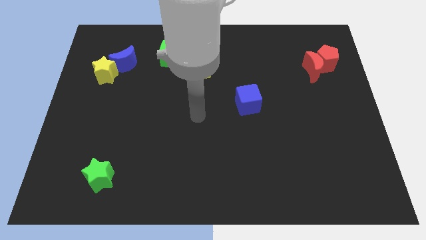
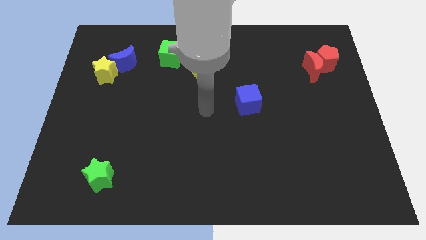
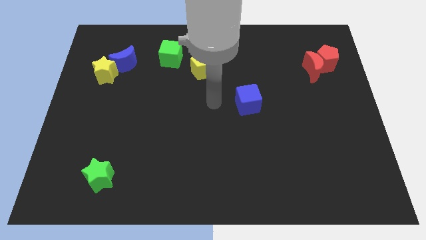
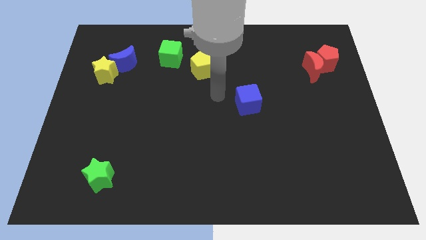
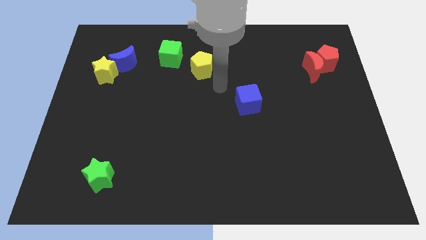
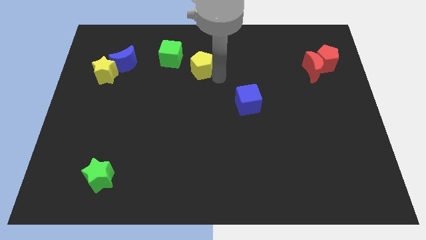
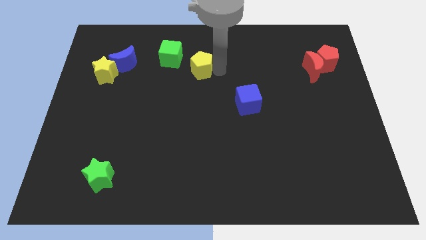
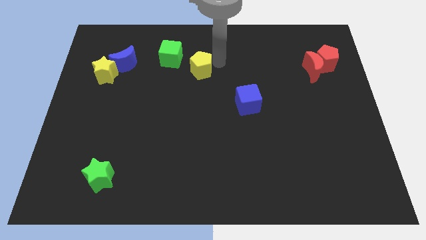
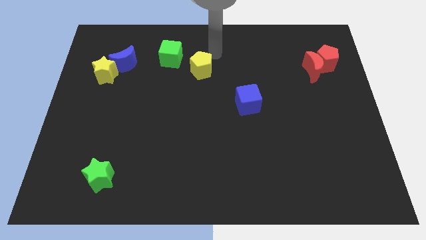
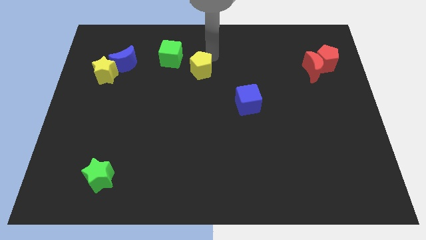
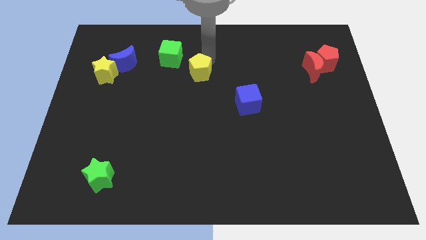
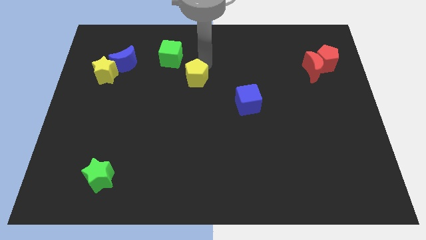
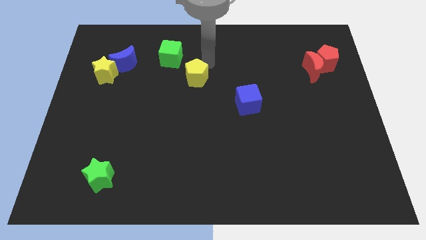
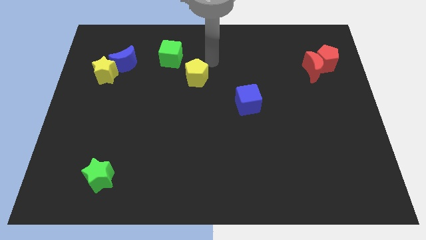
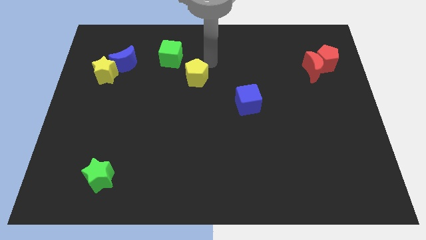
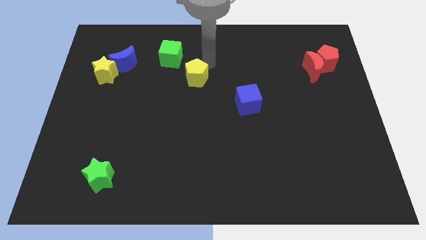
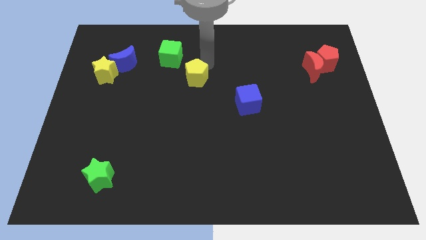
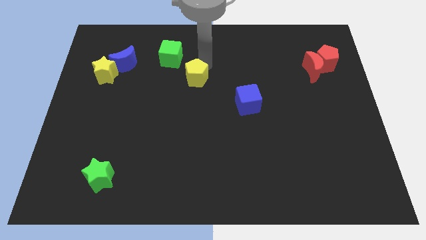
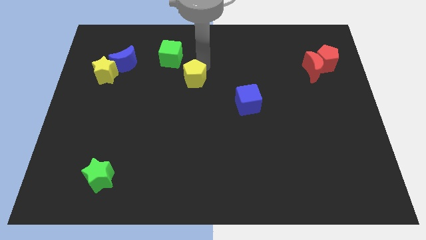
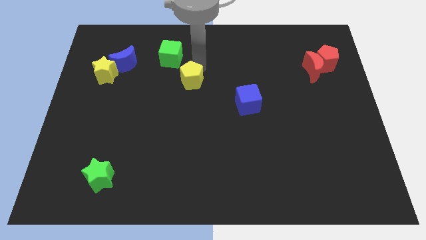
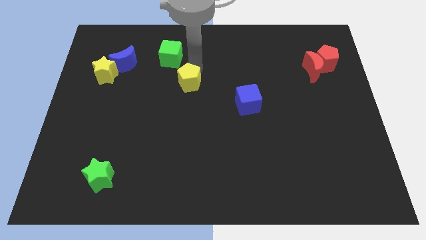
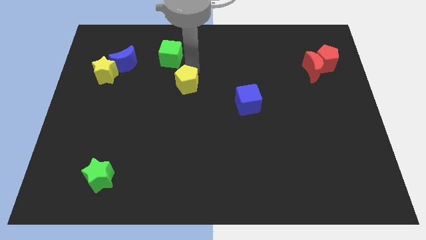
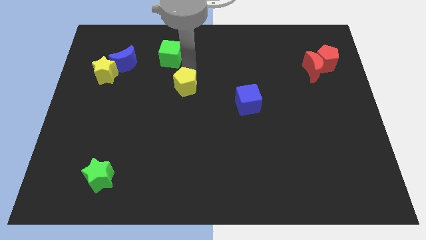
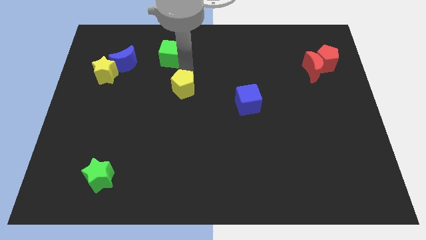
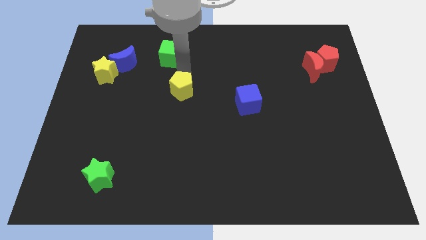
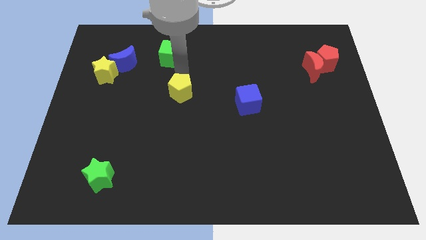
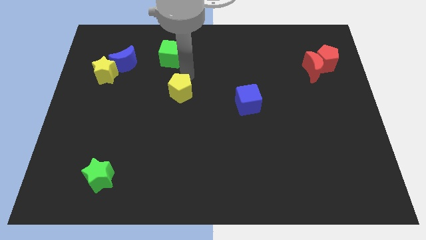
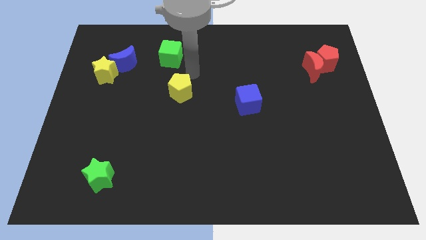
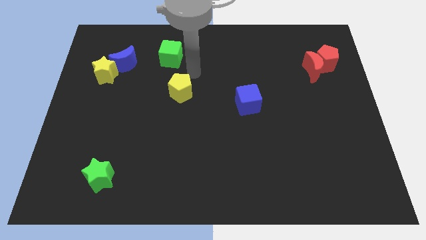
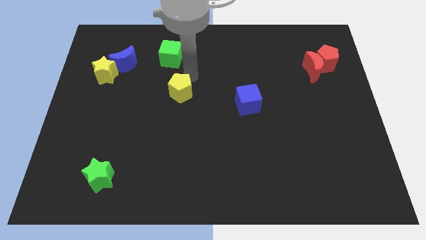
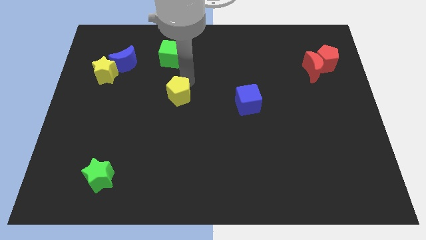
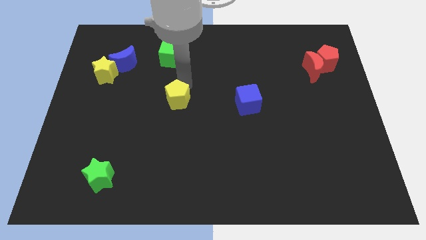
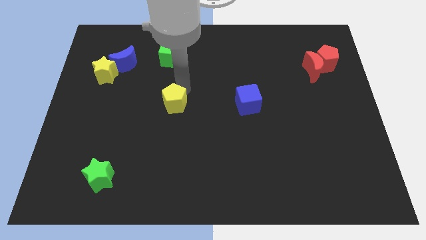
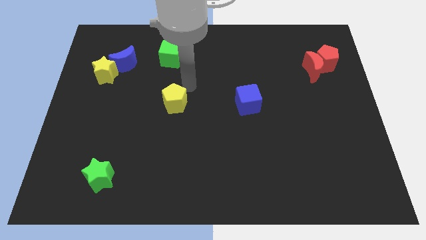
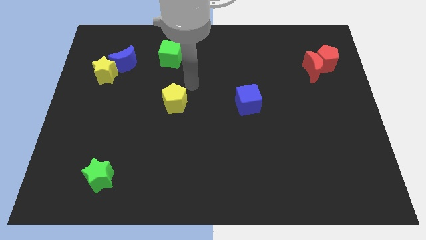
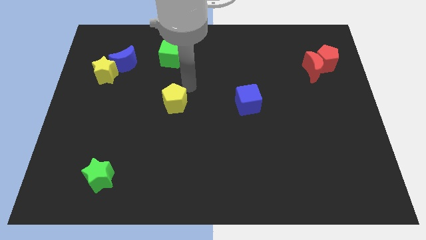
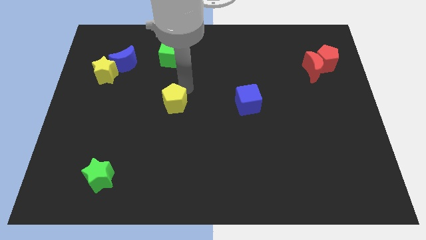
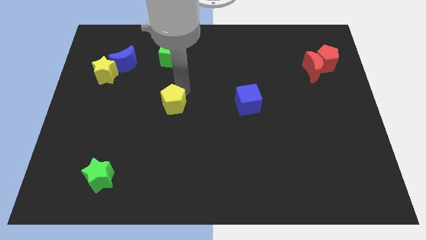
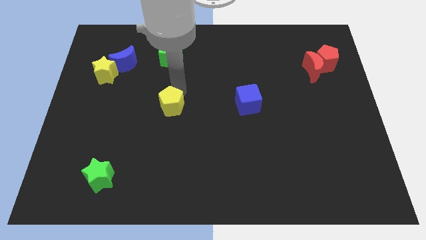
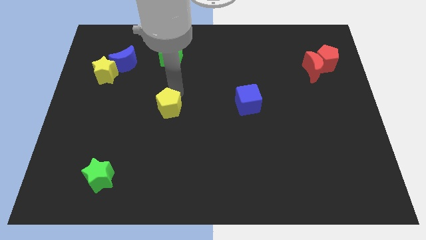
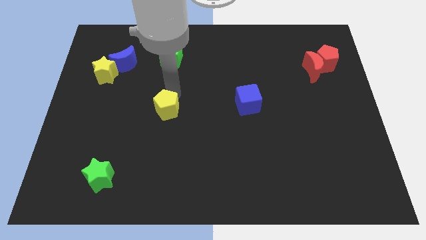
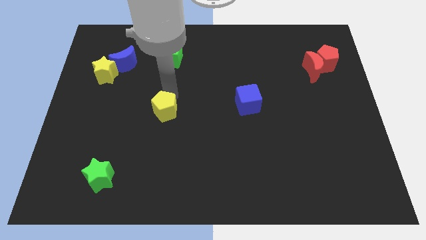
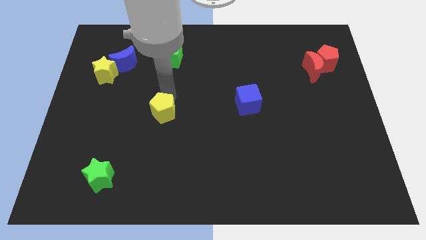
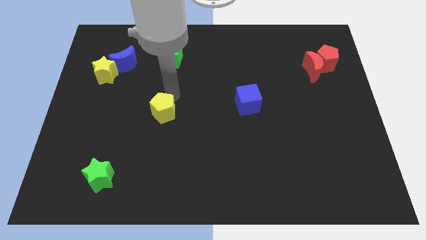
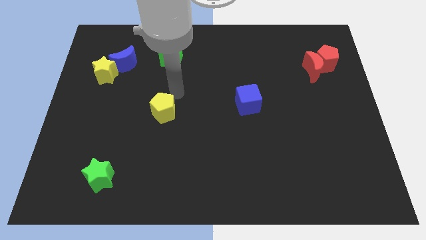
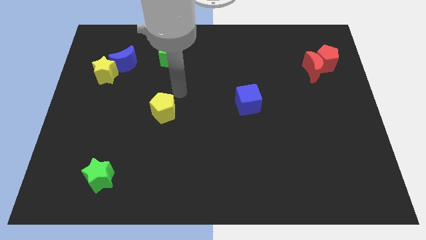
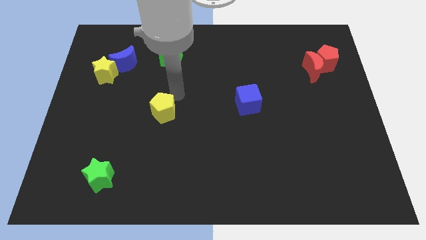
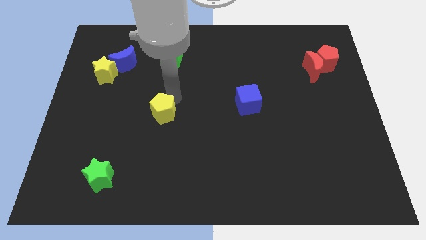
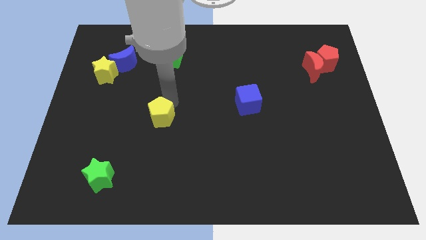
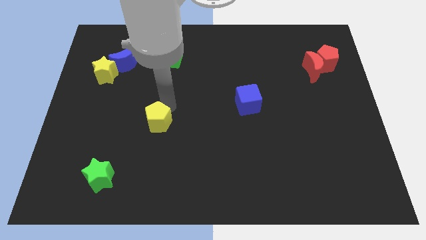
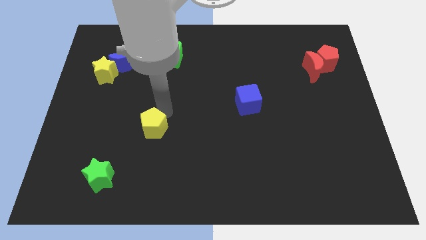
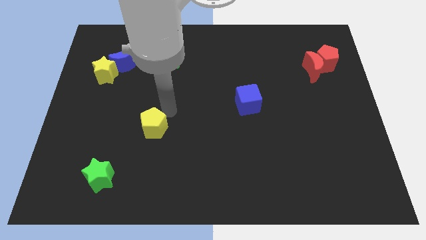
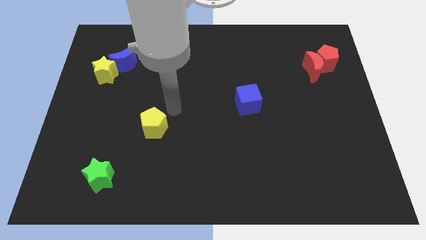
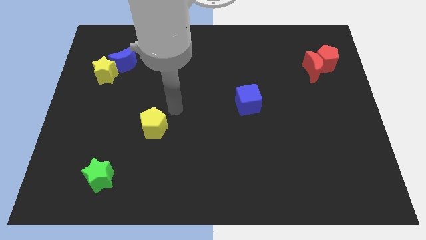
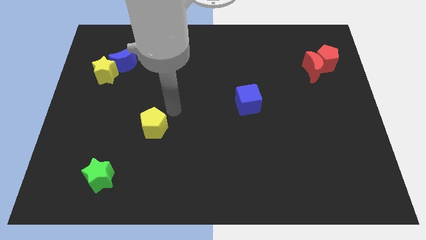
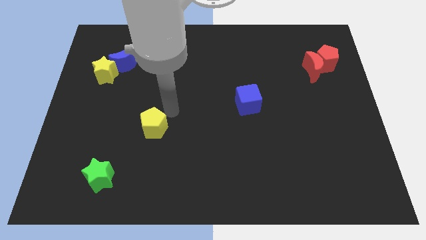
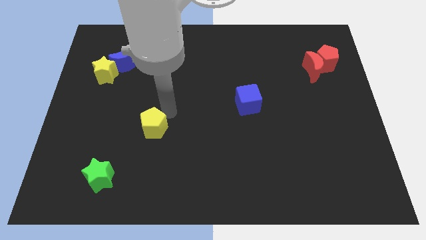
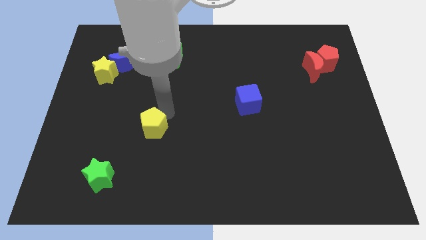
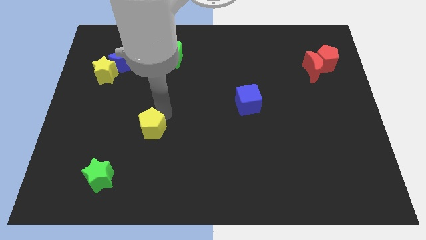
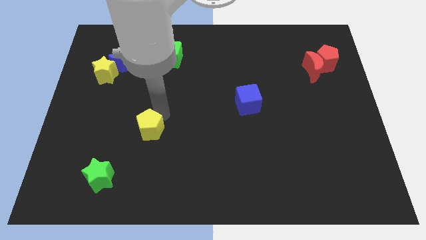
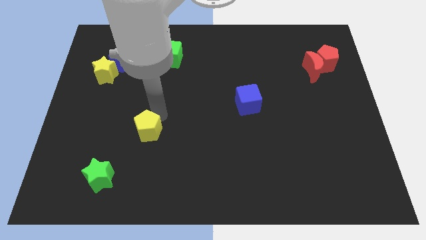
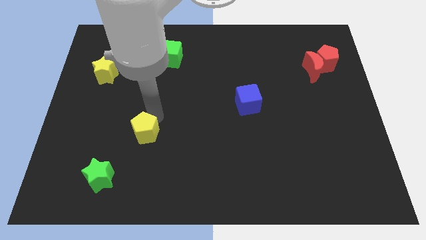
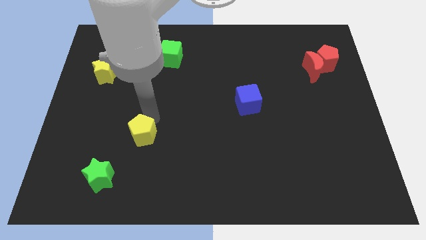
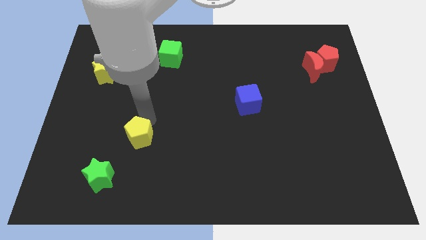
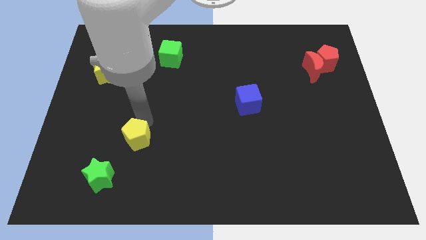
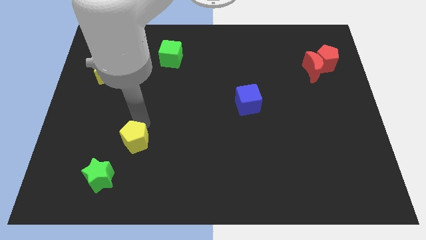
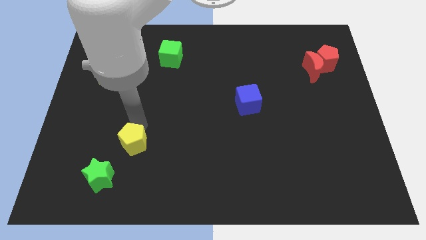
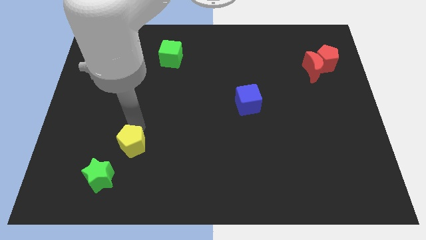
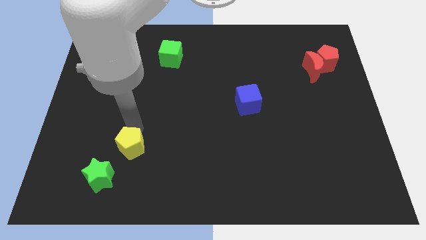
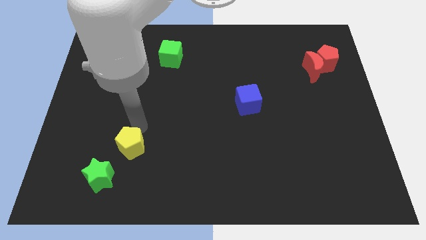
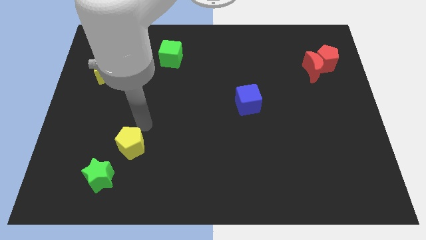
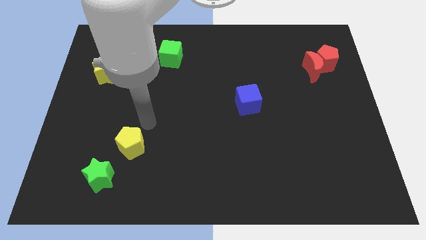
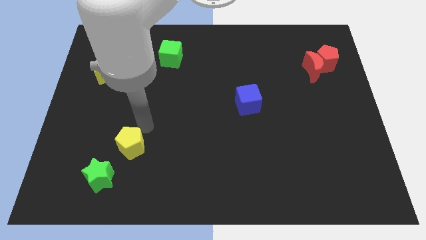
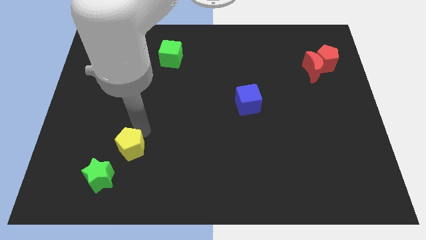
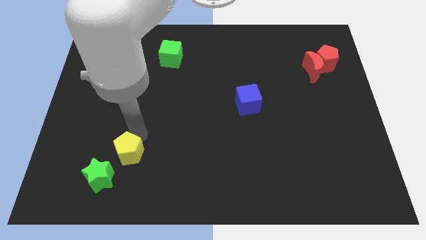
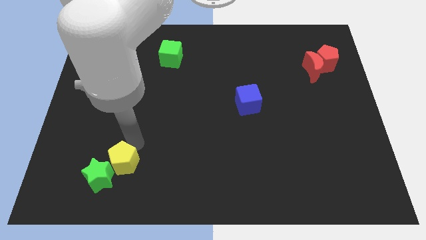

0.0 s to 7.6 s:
put the yellow pentagon next to the green star
